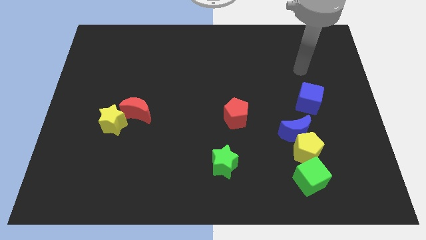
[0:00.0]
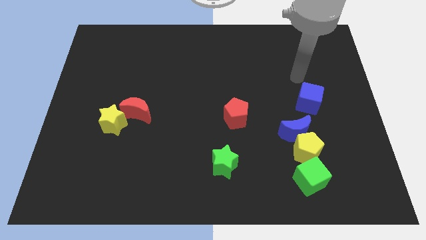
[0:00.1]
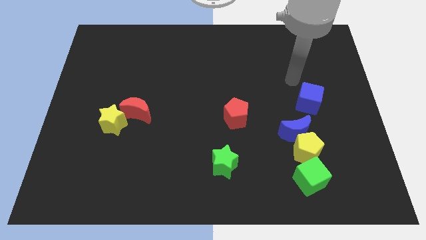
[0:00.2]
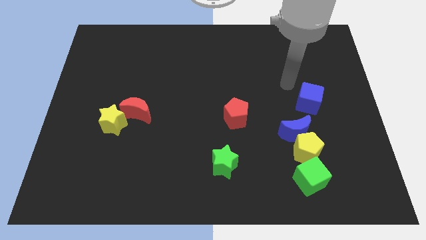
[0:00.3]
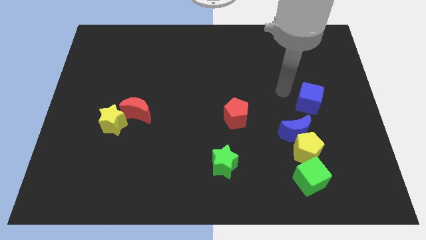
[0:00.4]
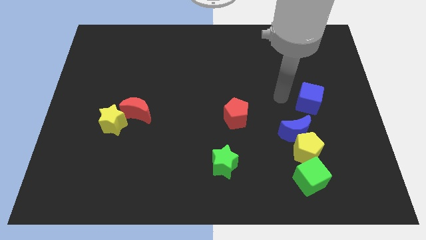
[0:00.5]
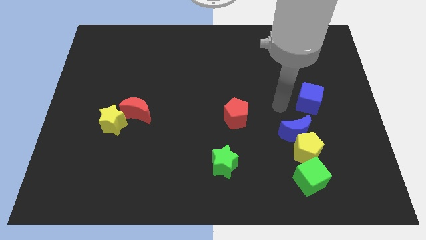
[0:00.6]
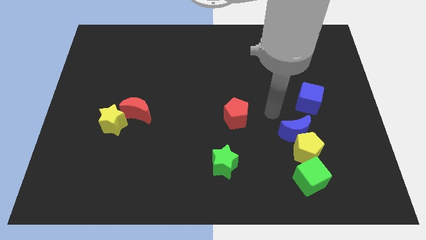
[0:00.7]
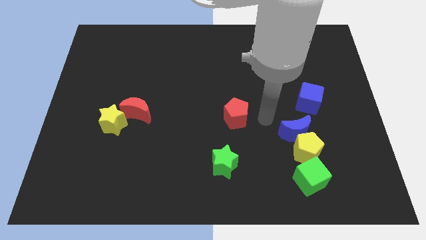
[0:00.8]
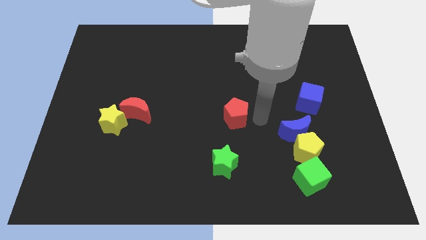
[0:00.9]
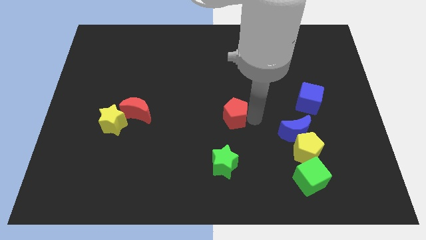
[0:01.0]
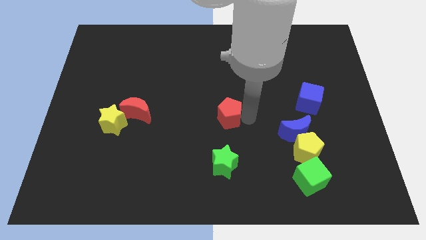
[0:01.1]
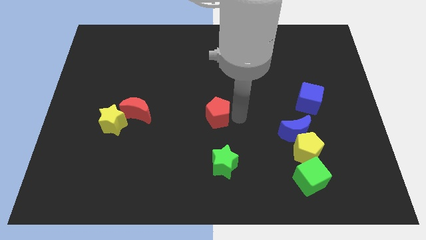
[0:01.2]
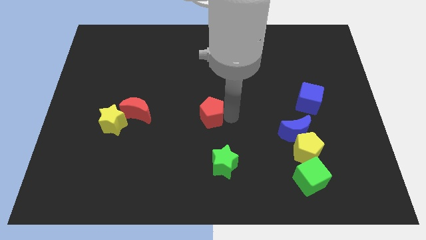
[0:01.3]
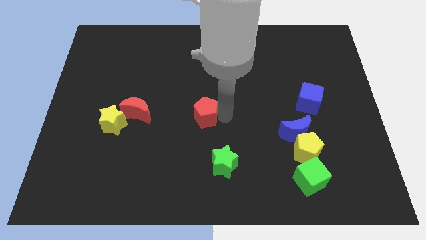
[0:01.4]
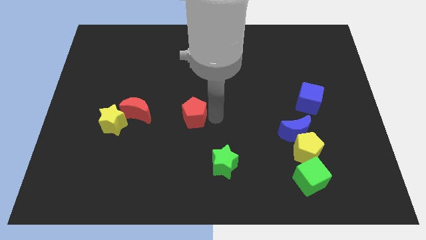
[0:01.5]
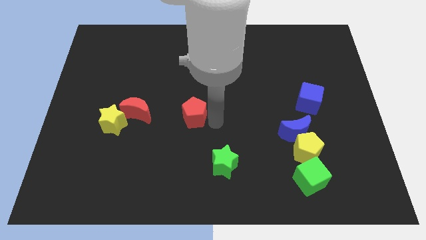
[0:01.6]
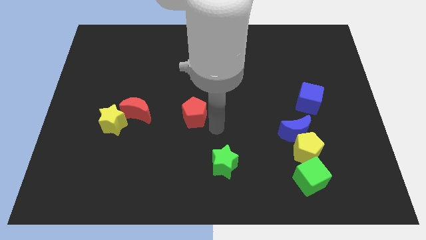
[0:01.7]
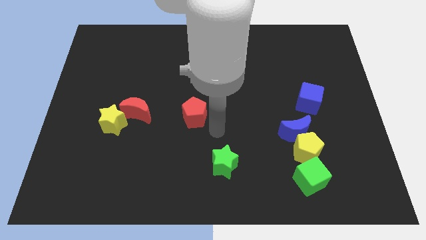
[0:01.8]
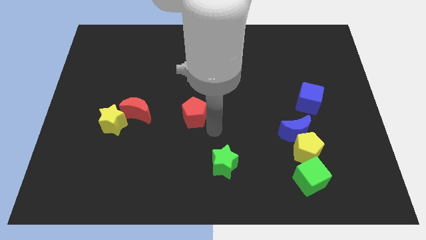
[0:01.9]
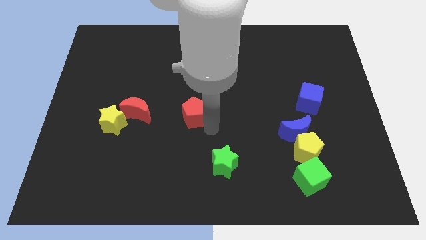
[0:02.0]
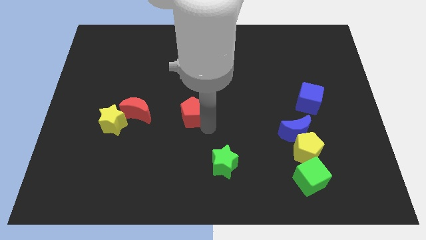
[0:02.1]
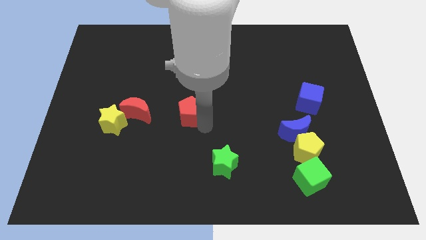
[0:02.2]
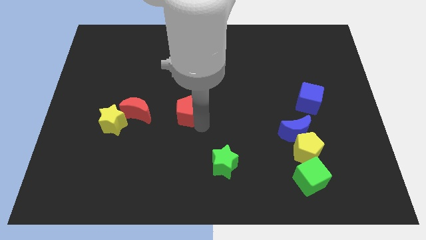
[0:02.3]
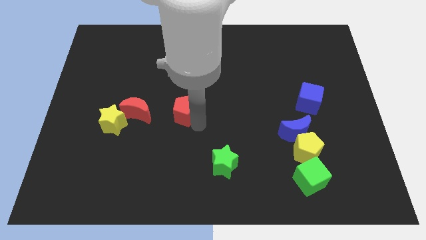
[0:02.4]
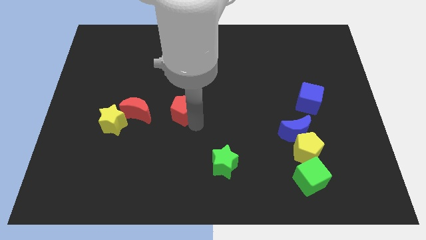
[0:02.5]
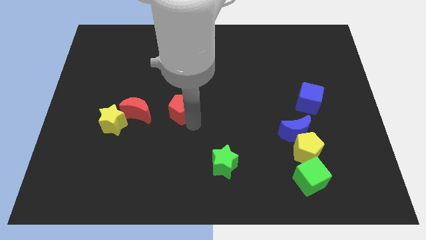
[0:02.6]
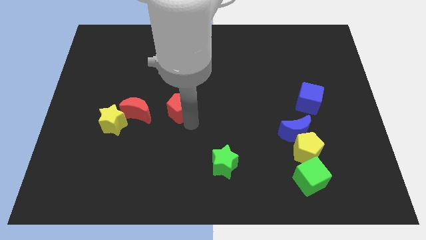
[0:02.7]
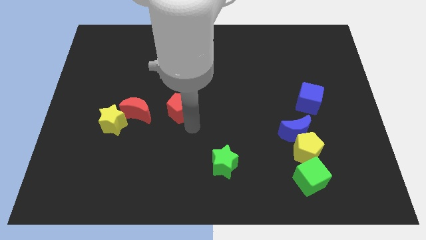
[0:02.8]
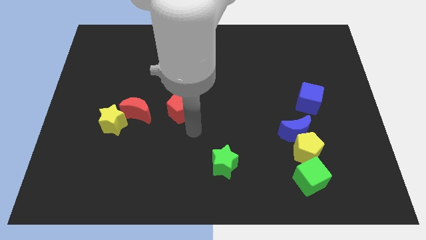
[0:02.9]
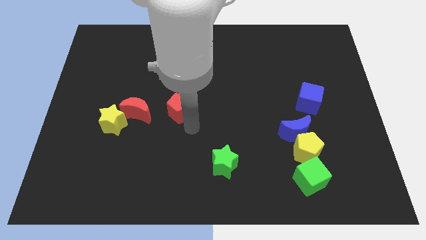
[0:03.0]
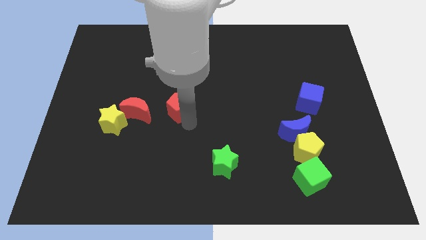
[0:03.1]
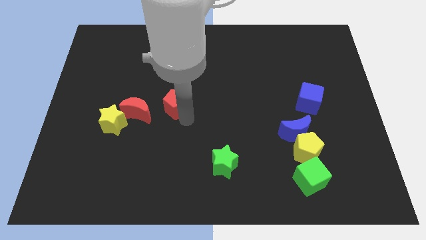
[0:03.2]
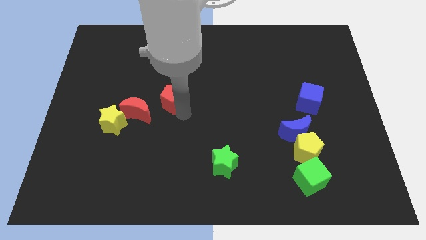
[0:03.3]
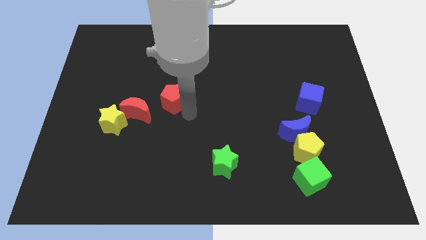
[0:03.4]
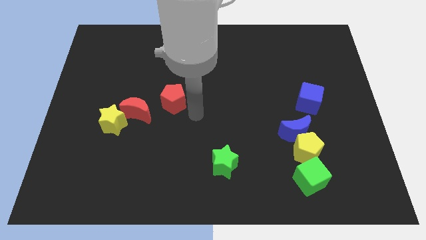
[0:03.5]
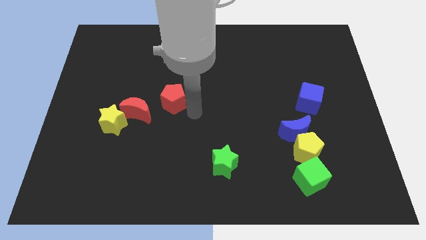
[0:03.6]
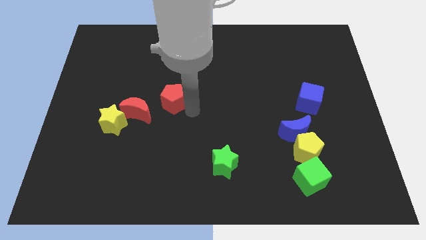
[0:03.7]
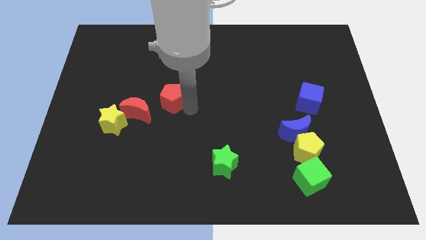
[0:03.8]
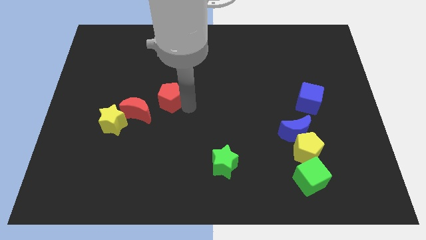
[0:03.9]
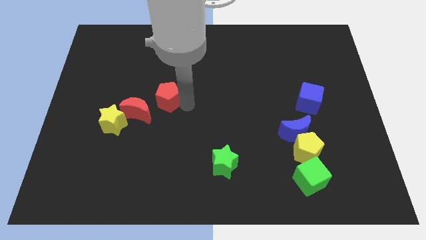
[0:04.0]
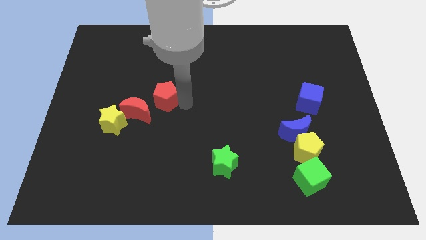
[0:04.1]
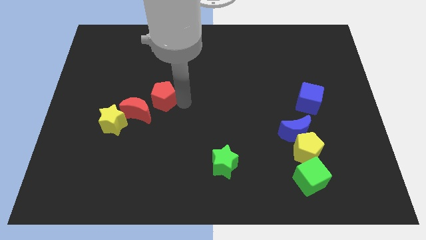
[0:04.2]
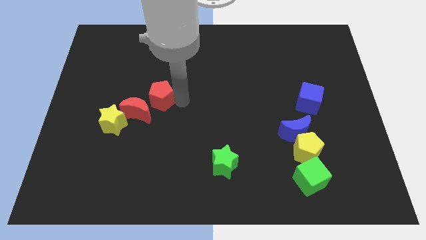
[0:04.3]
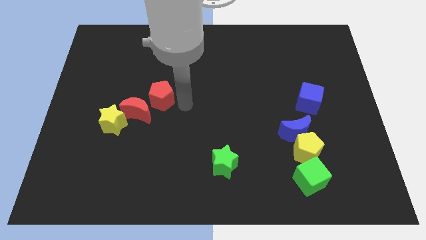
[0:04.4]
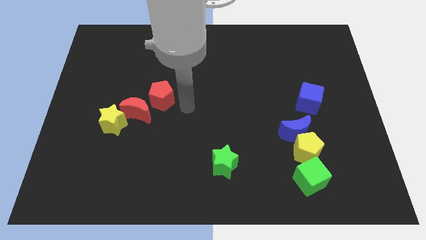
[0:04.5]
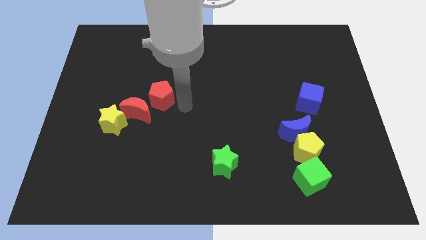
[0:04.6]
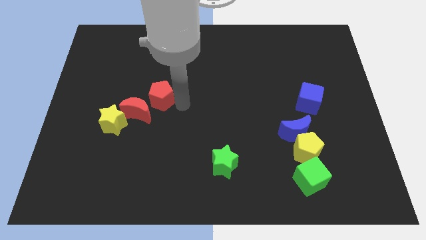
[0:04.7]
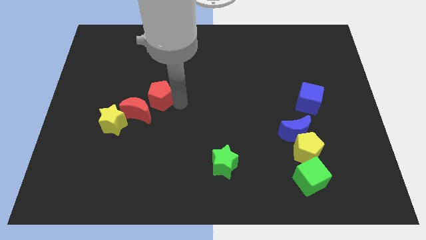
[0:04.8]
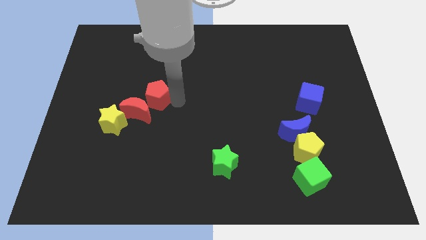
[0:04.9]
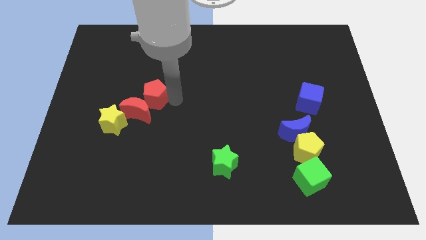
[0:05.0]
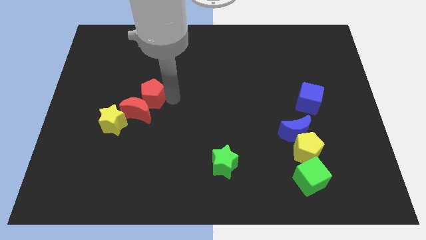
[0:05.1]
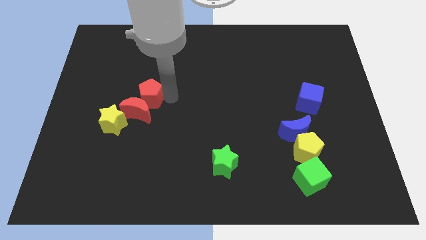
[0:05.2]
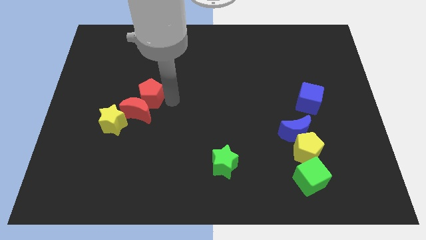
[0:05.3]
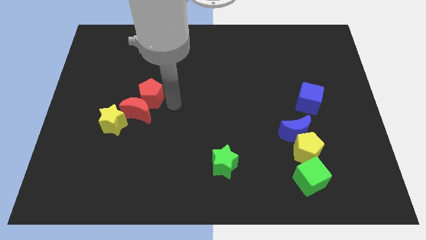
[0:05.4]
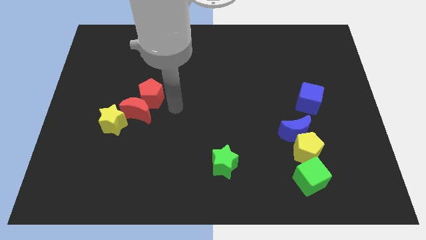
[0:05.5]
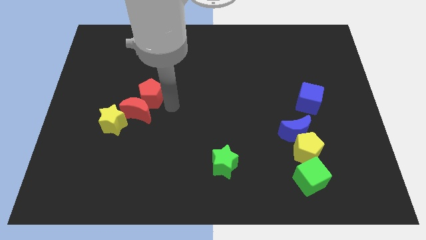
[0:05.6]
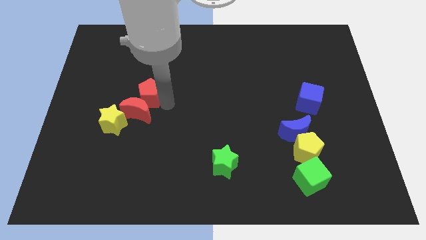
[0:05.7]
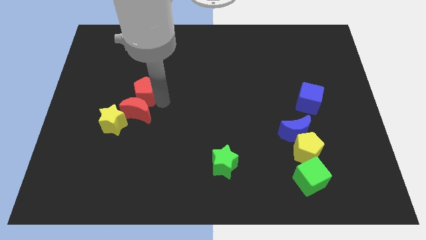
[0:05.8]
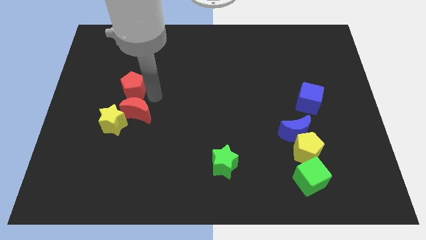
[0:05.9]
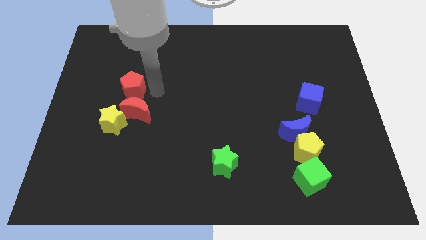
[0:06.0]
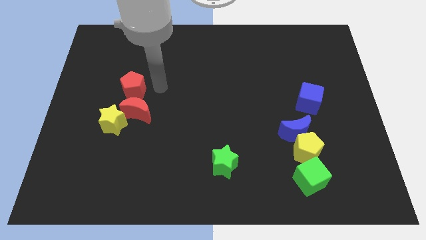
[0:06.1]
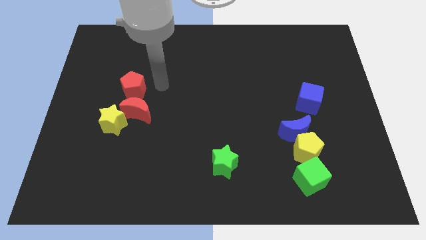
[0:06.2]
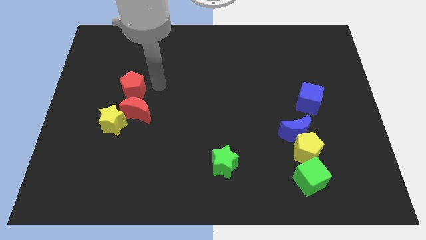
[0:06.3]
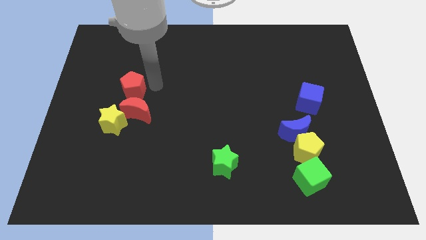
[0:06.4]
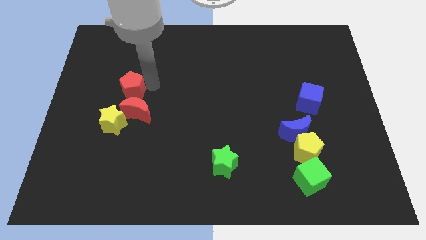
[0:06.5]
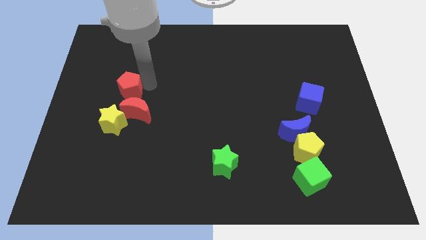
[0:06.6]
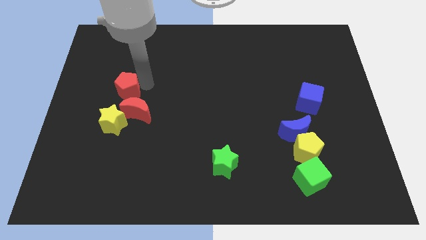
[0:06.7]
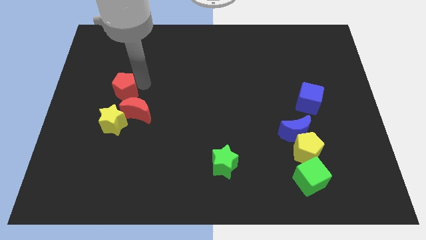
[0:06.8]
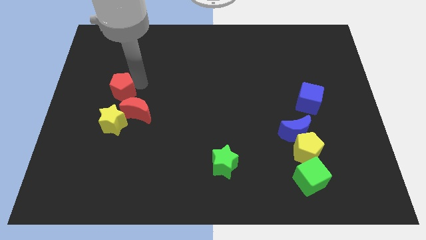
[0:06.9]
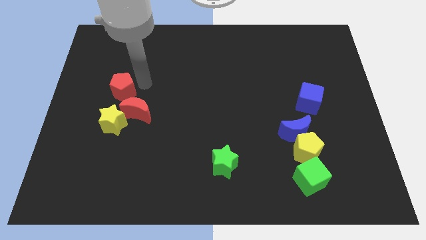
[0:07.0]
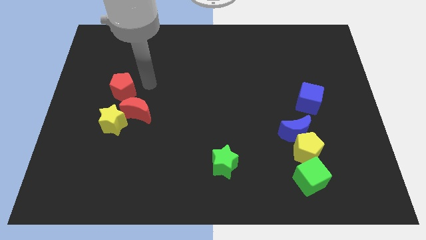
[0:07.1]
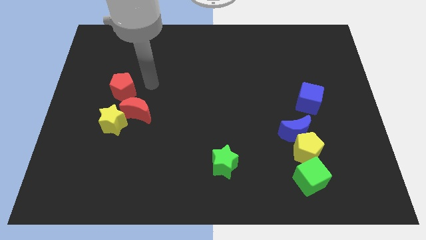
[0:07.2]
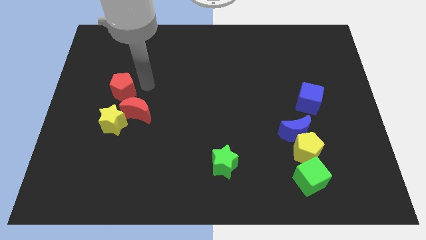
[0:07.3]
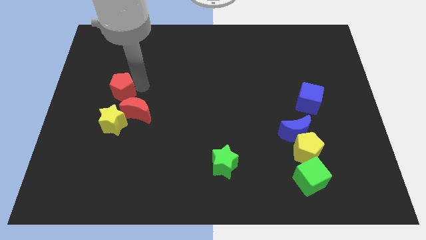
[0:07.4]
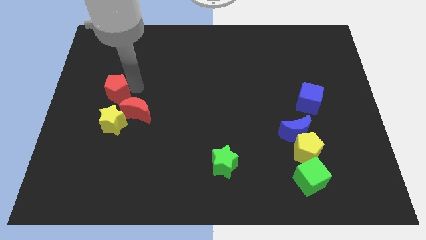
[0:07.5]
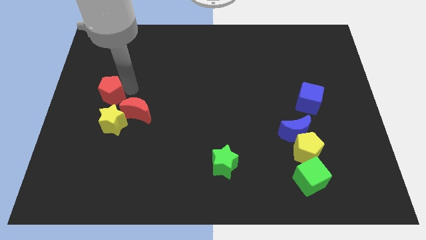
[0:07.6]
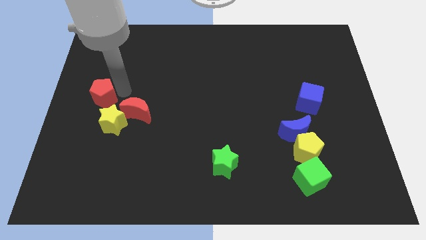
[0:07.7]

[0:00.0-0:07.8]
put the red pentagon to the left side of the board
